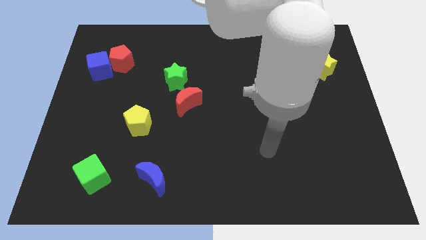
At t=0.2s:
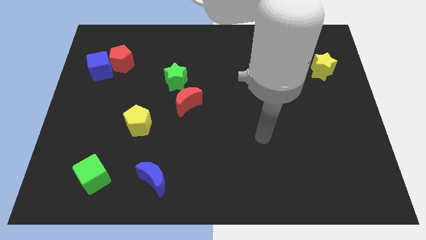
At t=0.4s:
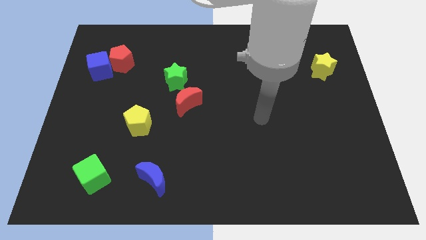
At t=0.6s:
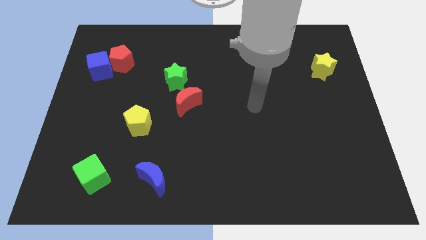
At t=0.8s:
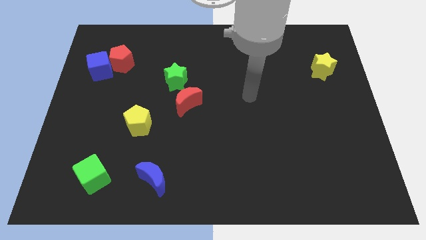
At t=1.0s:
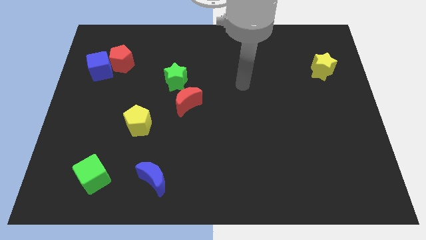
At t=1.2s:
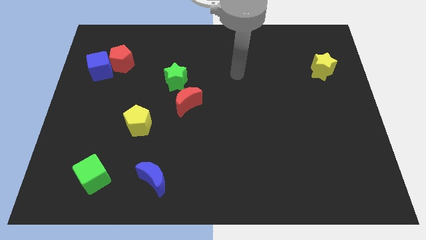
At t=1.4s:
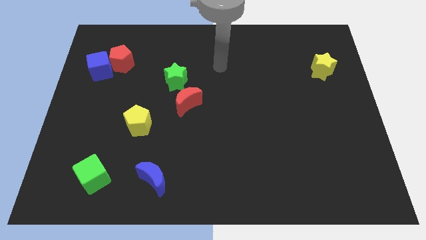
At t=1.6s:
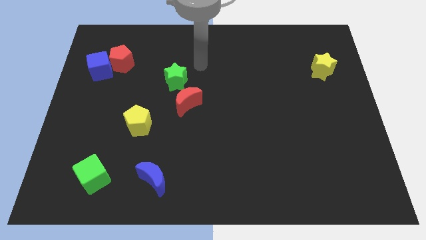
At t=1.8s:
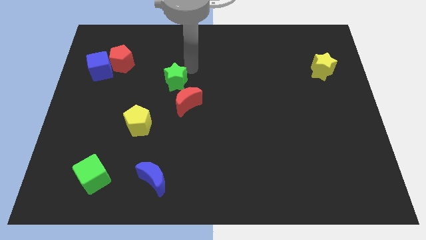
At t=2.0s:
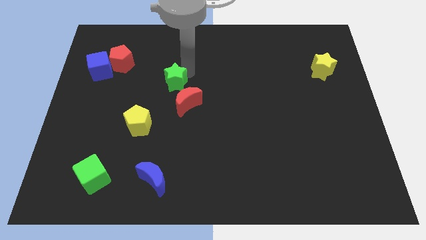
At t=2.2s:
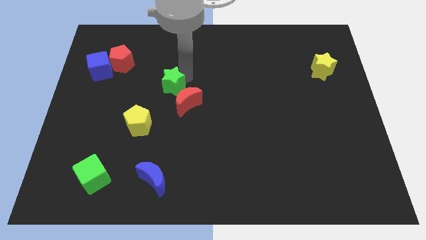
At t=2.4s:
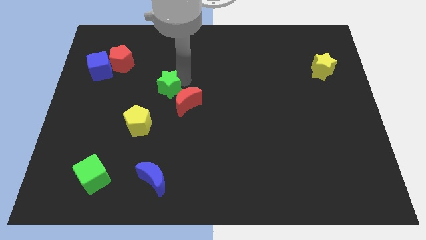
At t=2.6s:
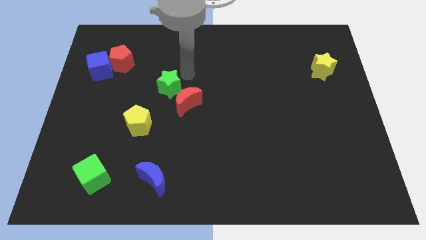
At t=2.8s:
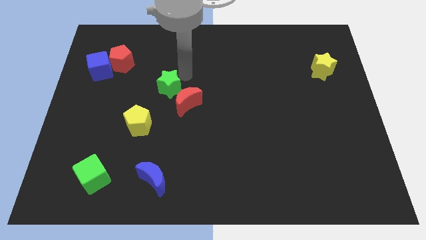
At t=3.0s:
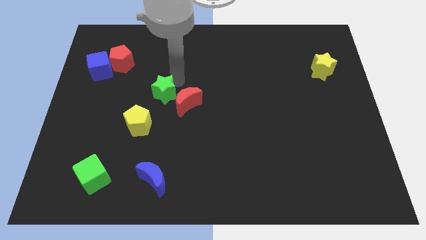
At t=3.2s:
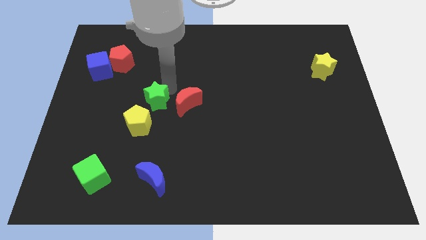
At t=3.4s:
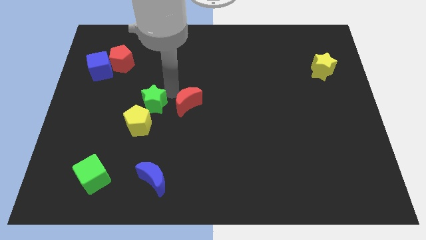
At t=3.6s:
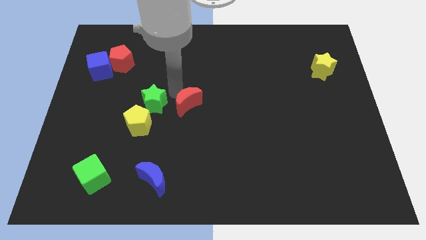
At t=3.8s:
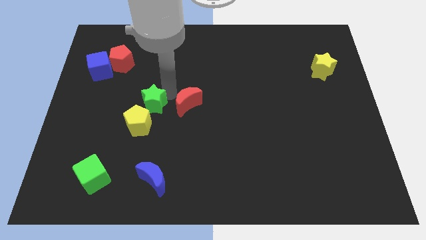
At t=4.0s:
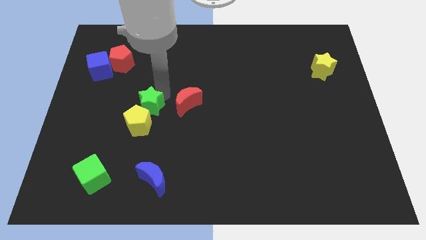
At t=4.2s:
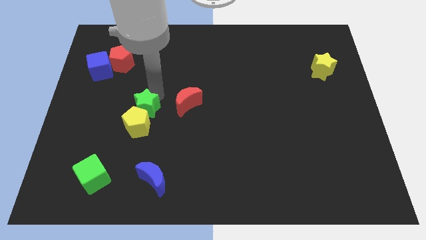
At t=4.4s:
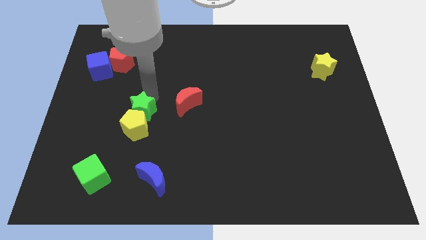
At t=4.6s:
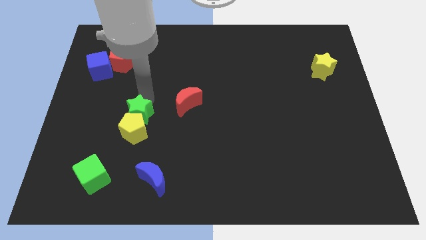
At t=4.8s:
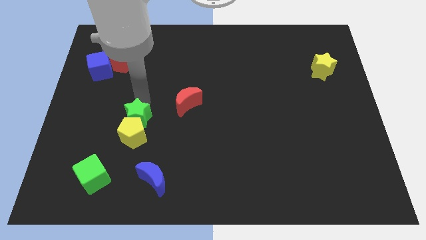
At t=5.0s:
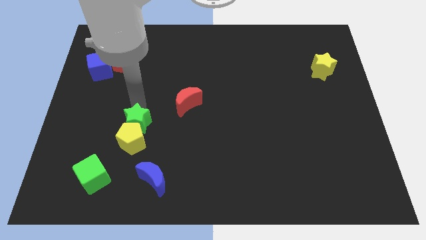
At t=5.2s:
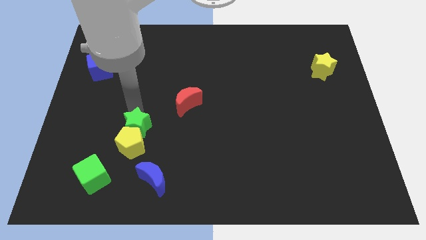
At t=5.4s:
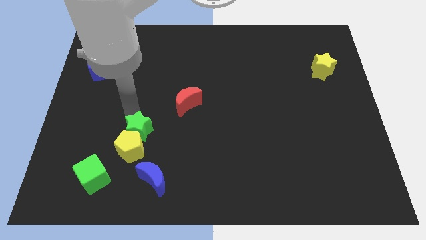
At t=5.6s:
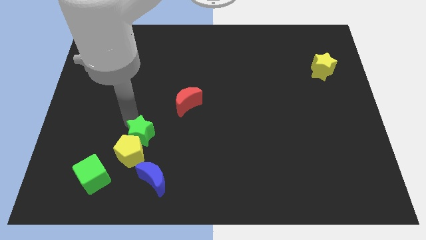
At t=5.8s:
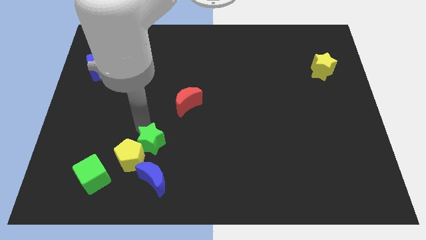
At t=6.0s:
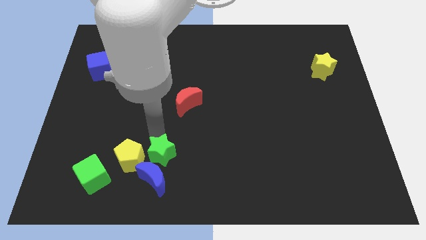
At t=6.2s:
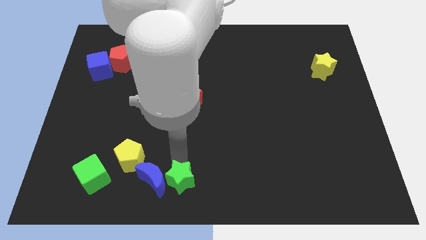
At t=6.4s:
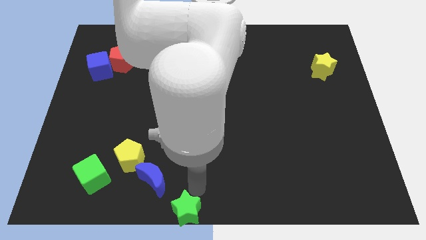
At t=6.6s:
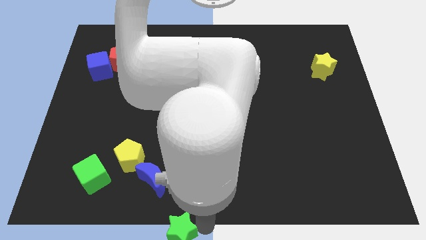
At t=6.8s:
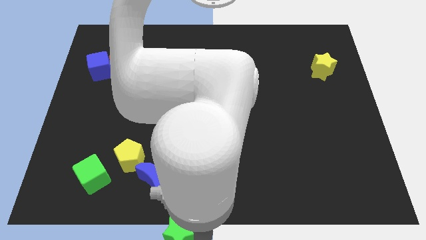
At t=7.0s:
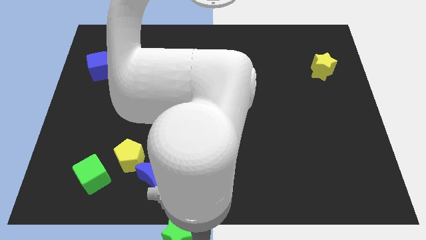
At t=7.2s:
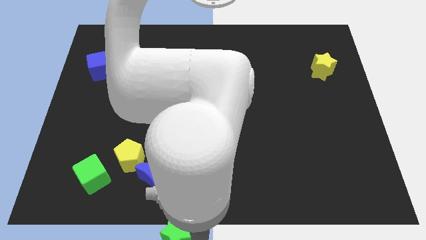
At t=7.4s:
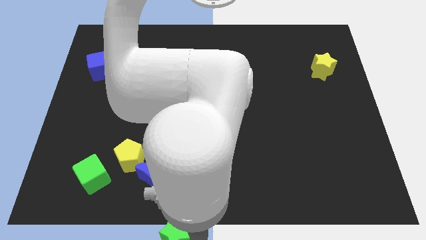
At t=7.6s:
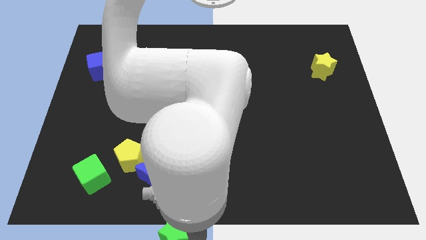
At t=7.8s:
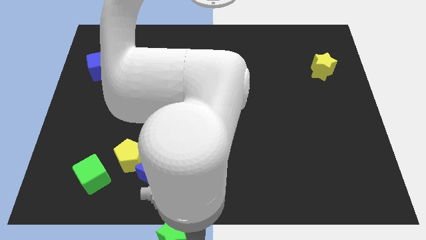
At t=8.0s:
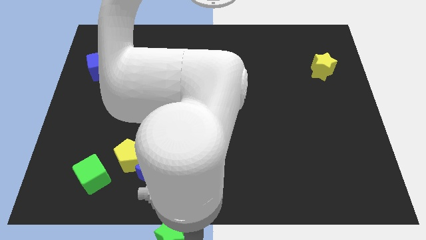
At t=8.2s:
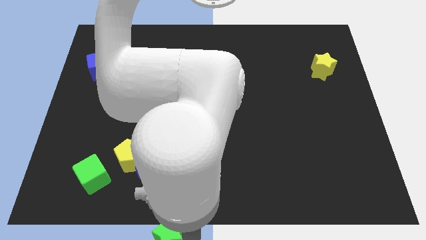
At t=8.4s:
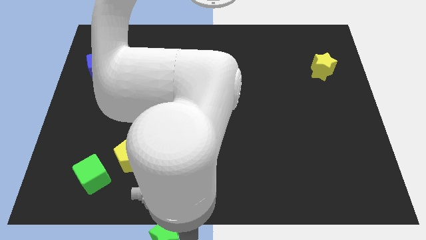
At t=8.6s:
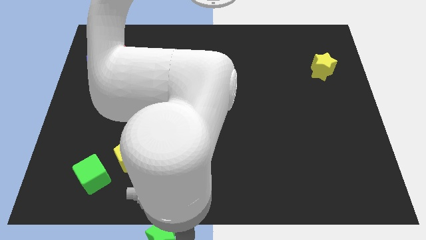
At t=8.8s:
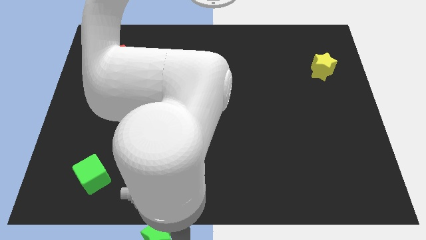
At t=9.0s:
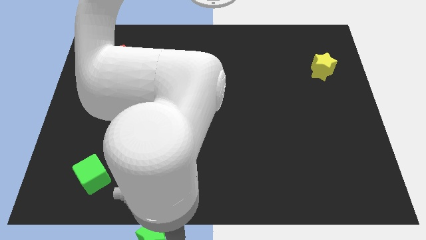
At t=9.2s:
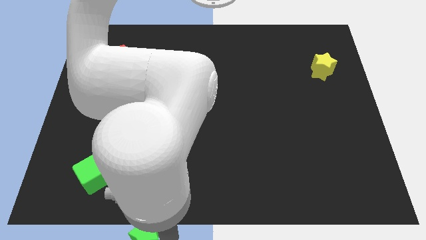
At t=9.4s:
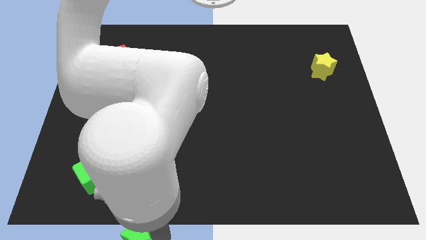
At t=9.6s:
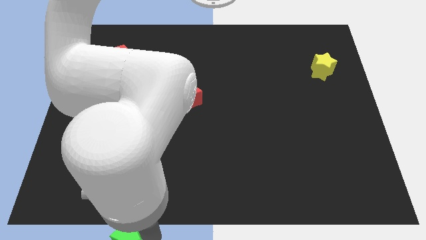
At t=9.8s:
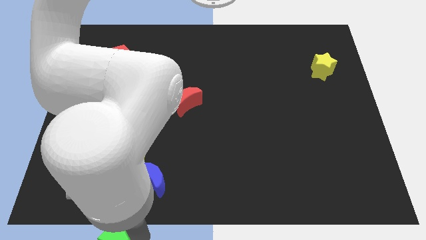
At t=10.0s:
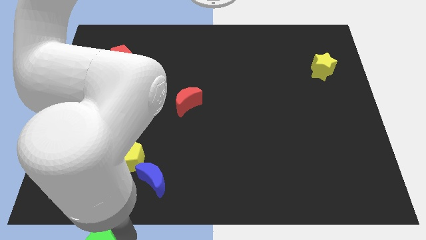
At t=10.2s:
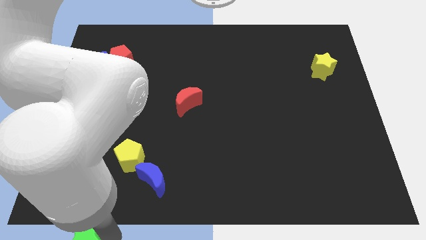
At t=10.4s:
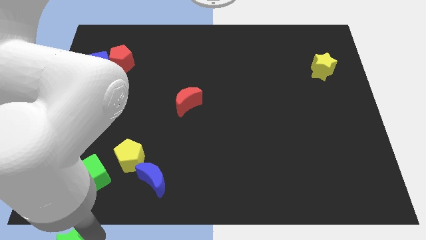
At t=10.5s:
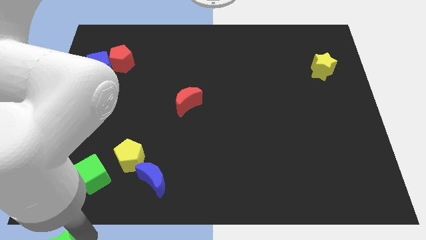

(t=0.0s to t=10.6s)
put the green star to the lower left corner

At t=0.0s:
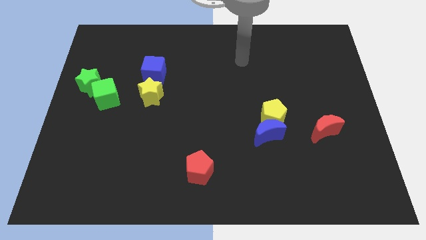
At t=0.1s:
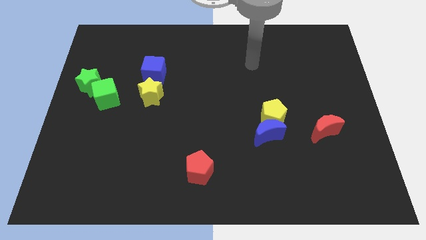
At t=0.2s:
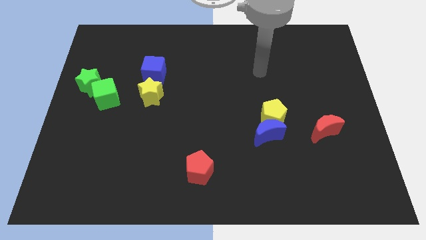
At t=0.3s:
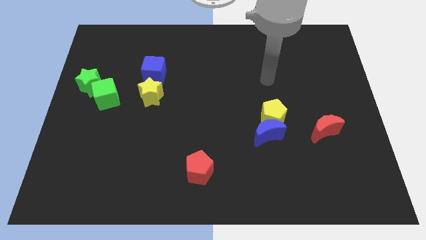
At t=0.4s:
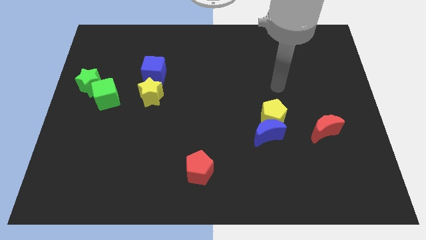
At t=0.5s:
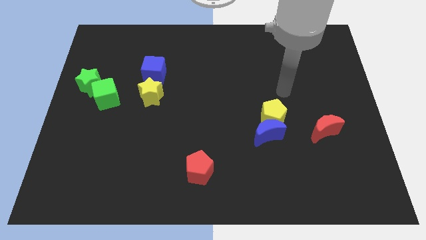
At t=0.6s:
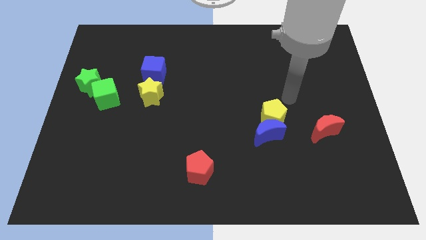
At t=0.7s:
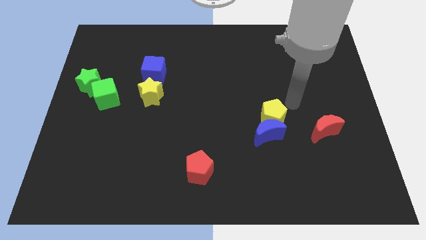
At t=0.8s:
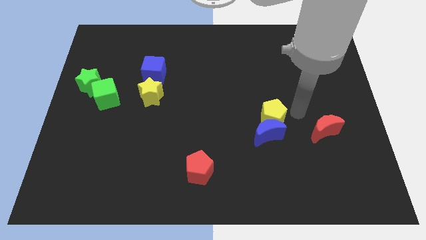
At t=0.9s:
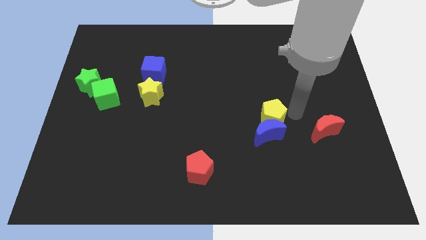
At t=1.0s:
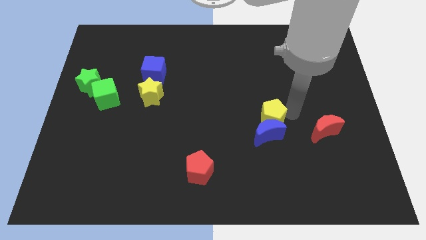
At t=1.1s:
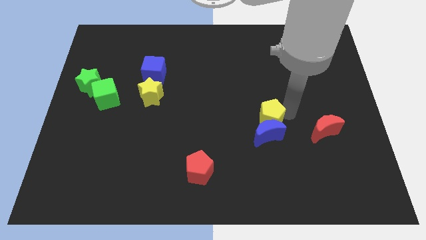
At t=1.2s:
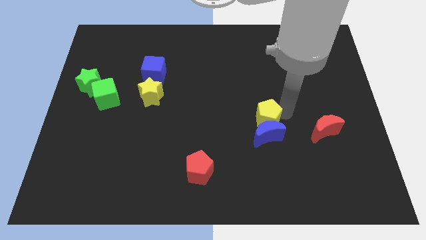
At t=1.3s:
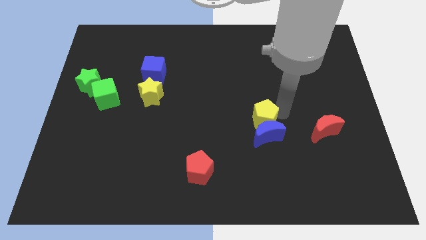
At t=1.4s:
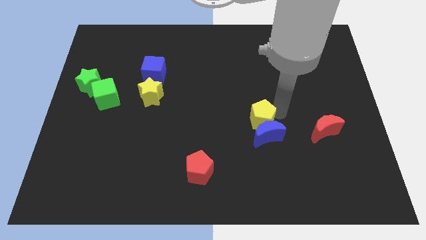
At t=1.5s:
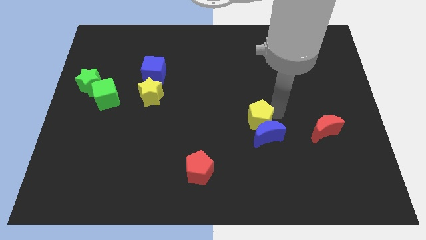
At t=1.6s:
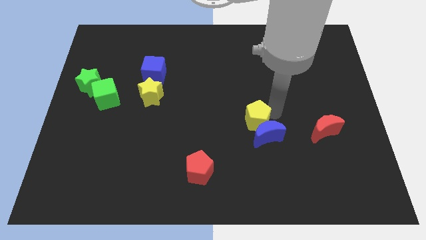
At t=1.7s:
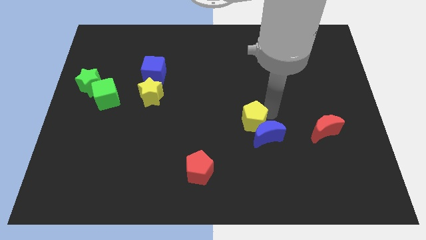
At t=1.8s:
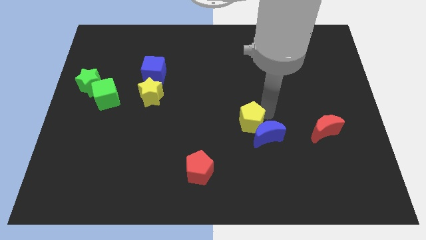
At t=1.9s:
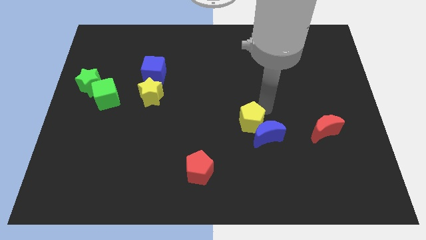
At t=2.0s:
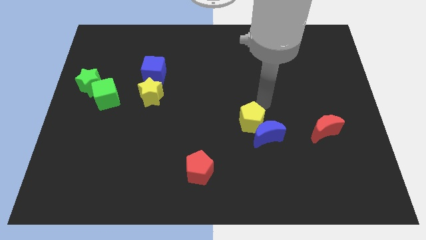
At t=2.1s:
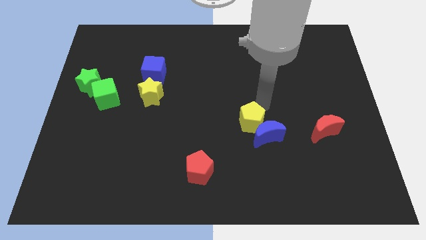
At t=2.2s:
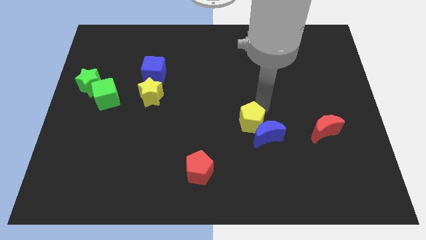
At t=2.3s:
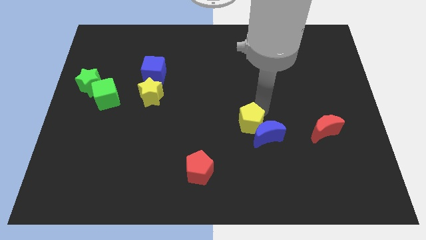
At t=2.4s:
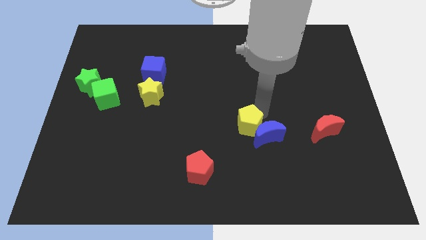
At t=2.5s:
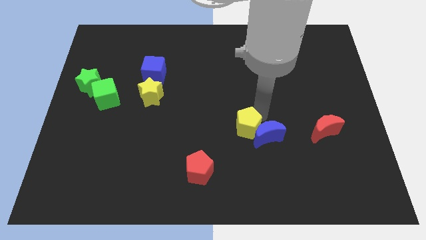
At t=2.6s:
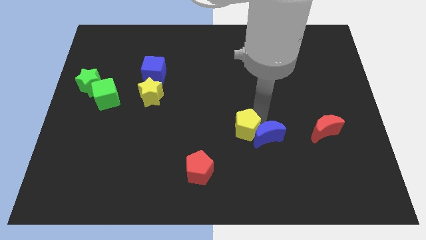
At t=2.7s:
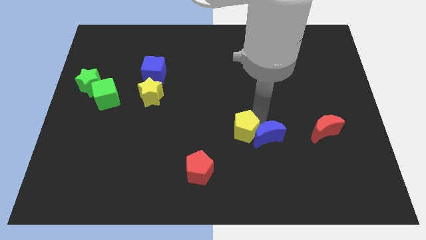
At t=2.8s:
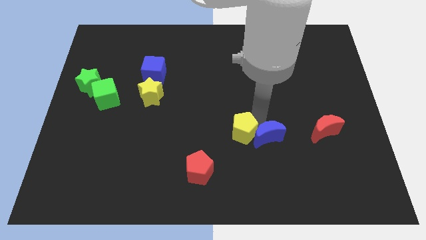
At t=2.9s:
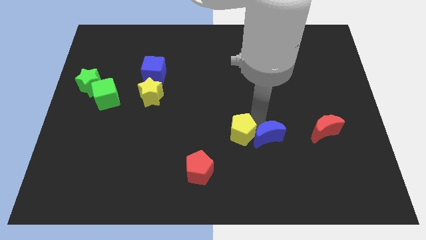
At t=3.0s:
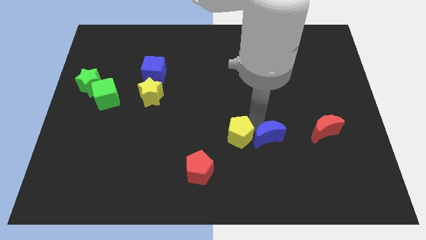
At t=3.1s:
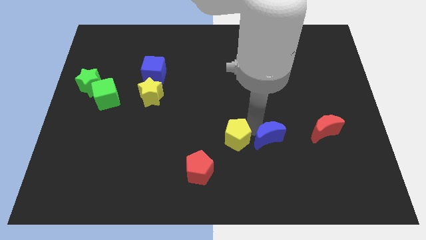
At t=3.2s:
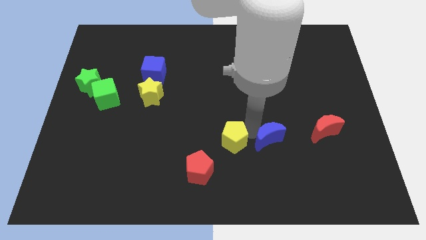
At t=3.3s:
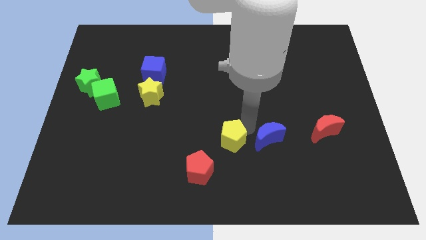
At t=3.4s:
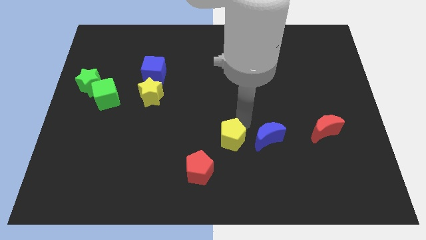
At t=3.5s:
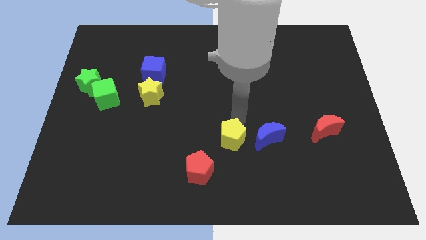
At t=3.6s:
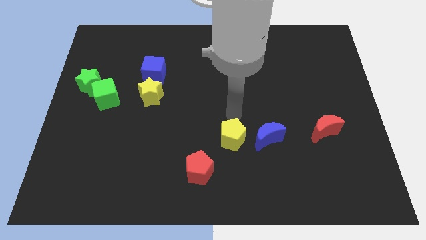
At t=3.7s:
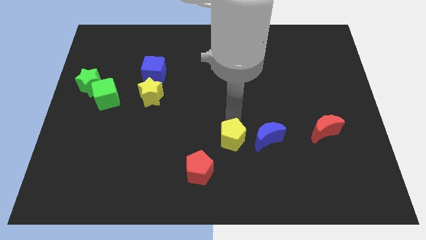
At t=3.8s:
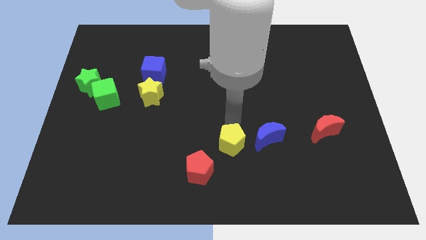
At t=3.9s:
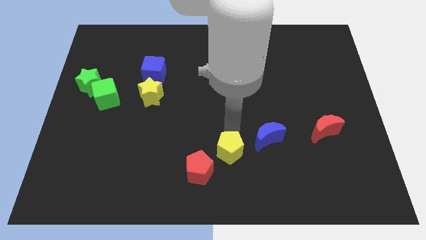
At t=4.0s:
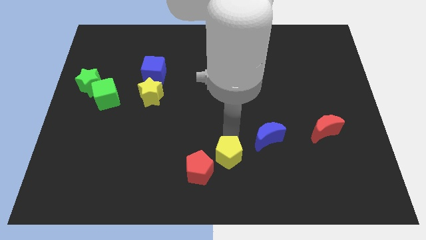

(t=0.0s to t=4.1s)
put the yellow pentagon to the bottom side
